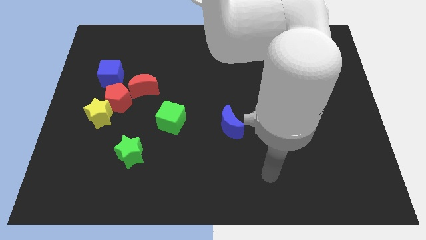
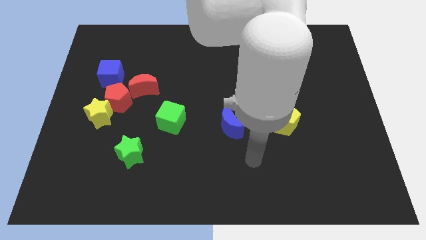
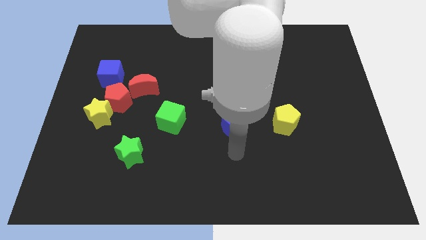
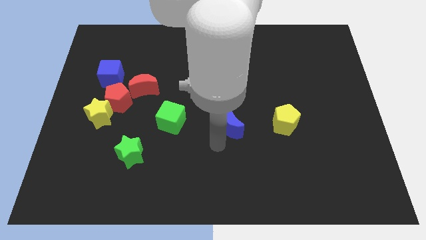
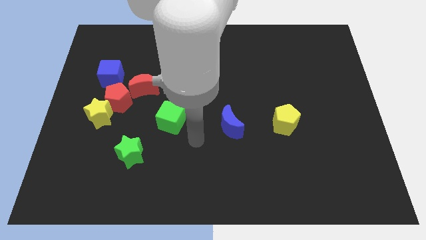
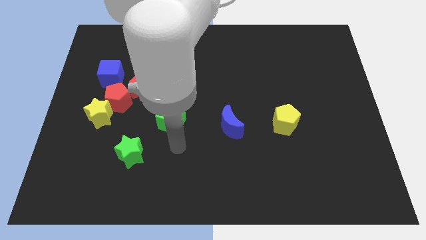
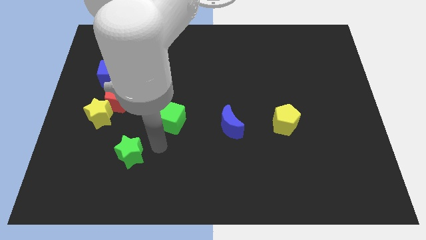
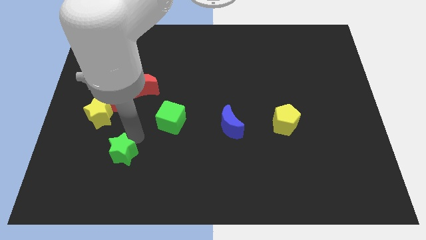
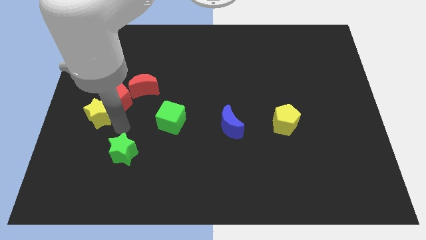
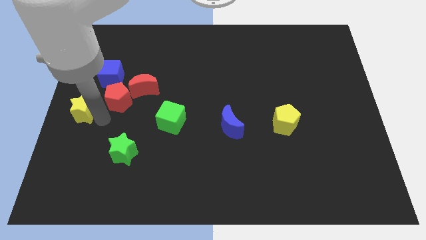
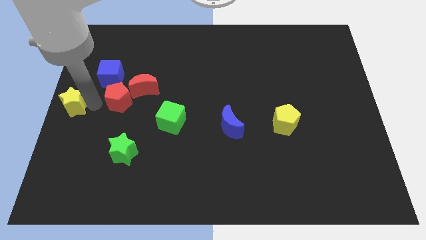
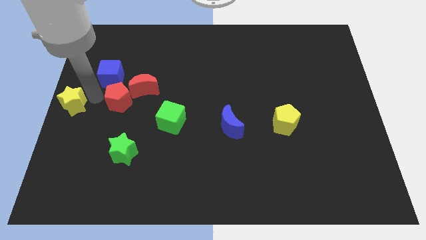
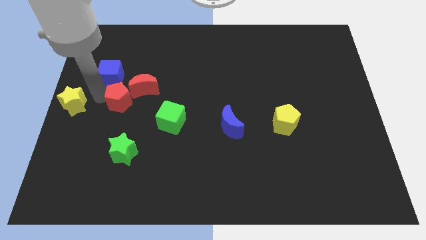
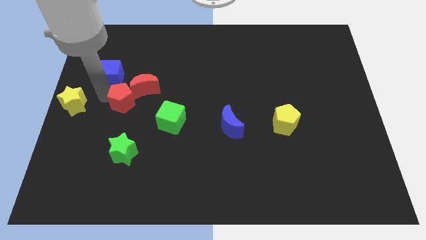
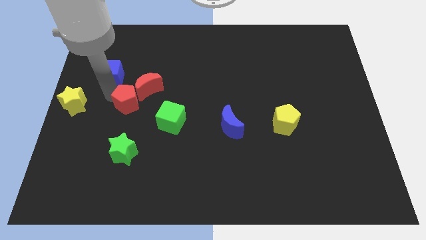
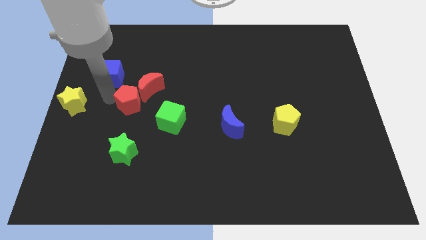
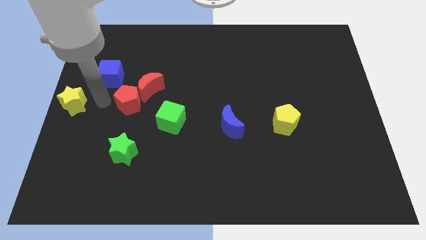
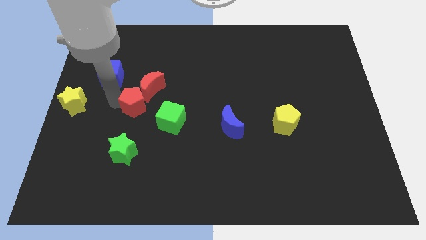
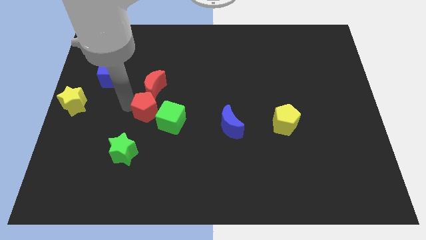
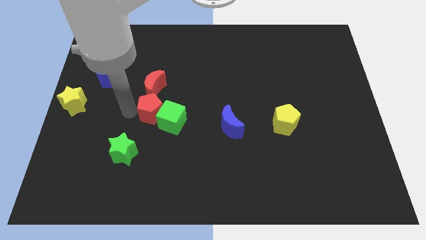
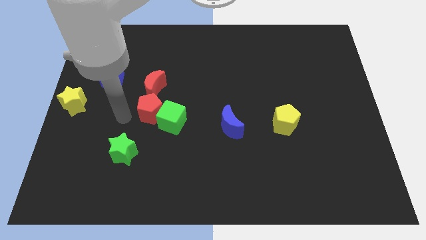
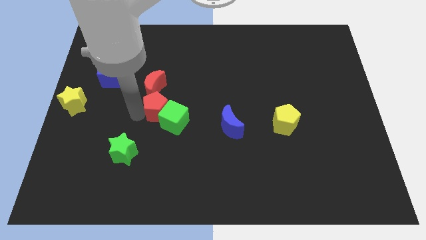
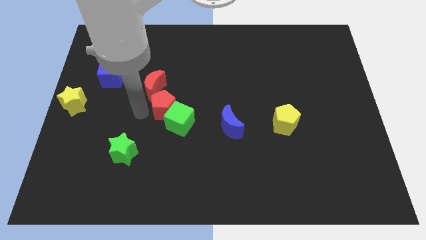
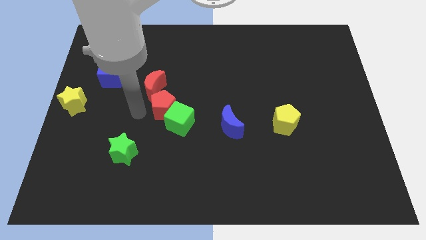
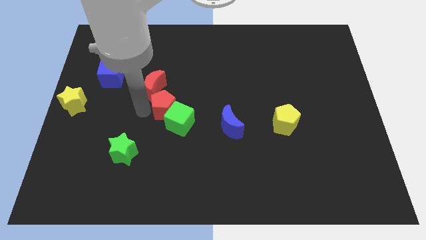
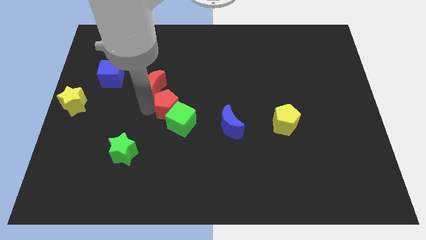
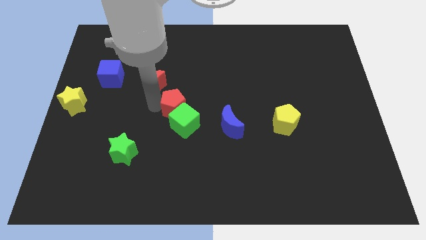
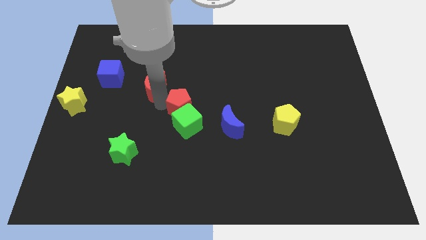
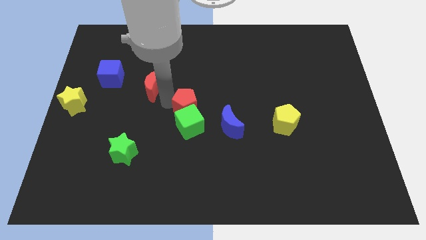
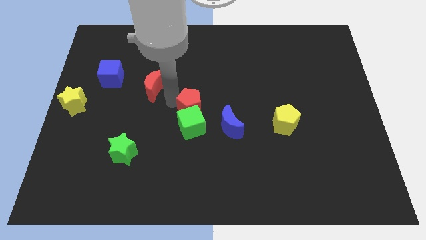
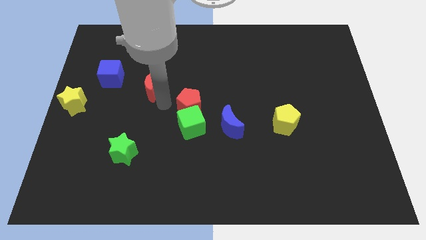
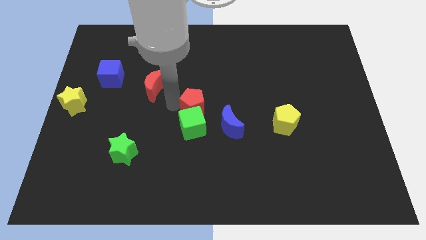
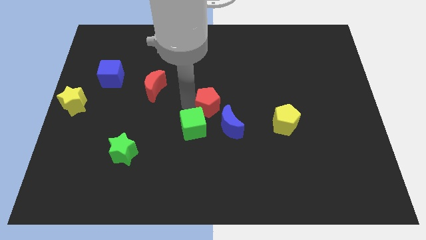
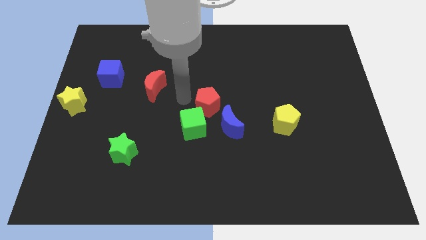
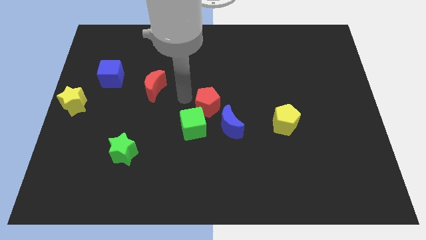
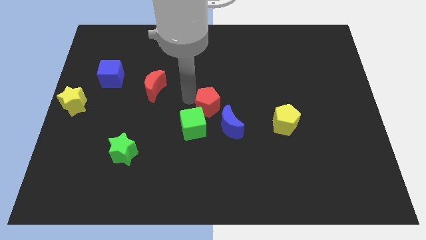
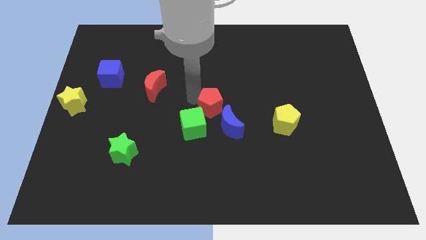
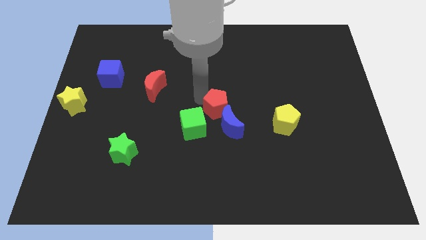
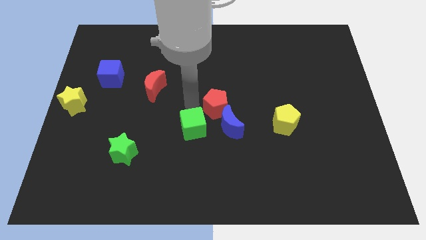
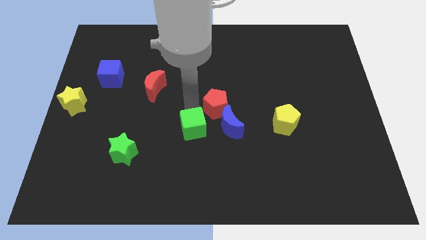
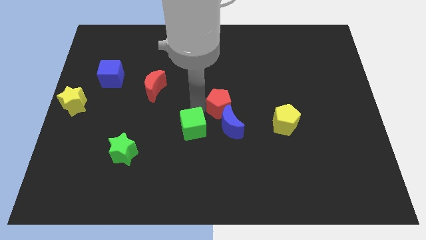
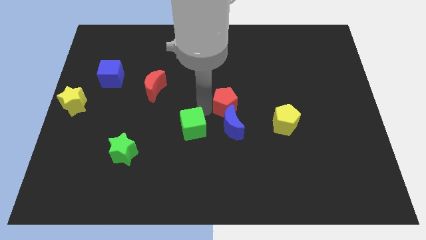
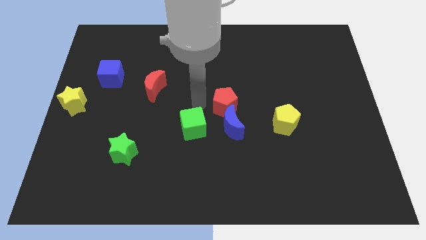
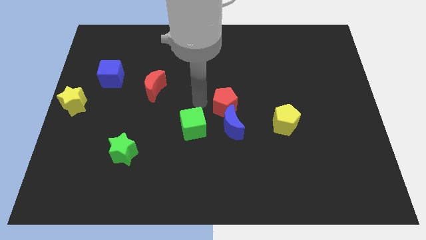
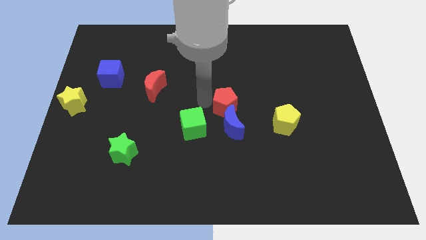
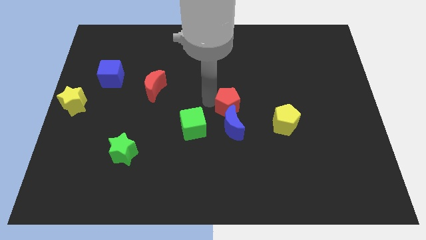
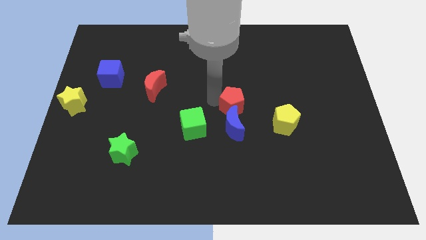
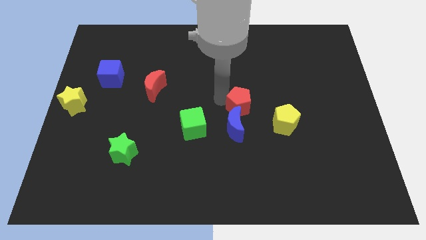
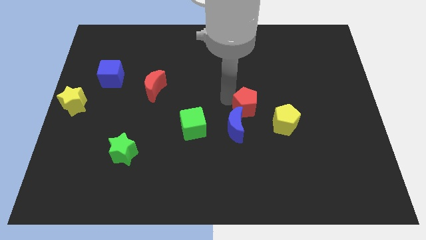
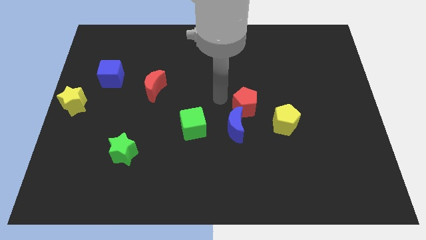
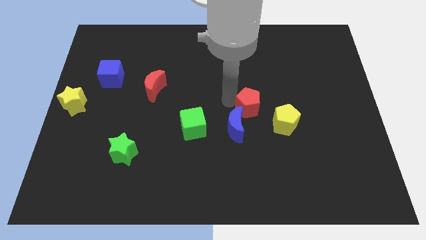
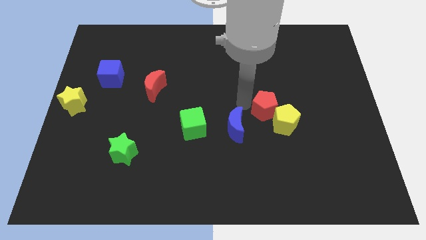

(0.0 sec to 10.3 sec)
put the red pentagon to the yellow pentagon
